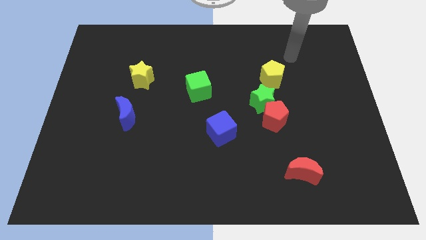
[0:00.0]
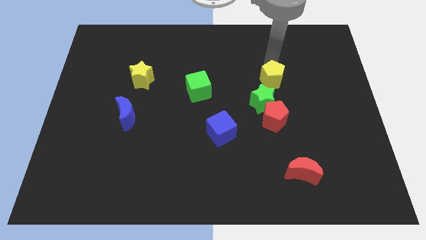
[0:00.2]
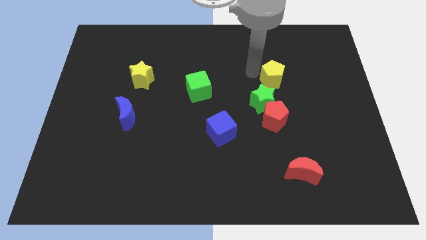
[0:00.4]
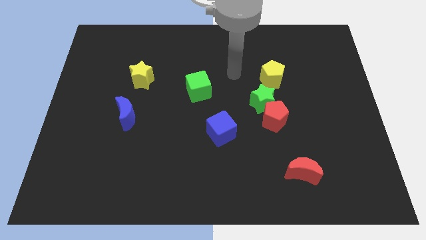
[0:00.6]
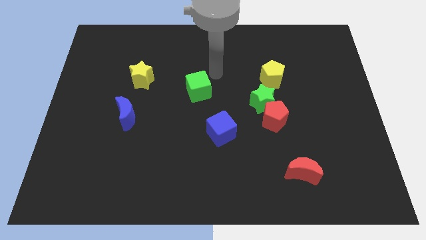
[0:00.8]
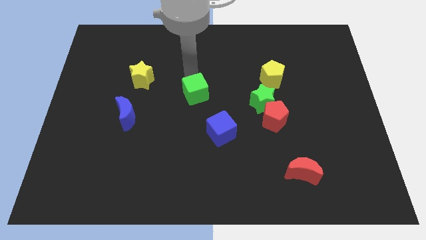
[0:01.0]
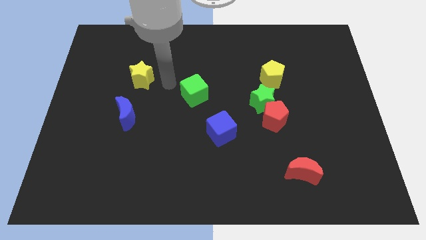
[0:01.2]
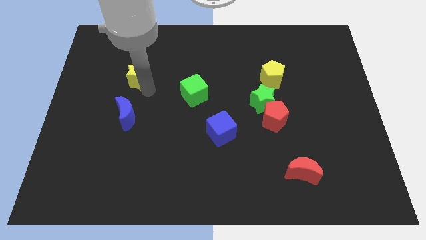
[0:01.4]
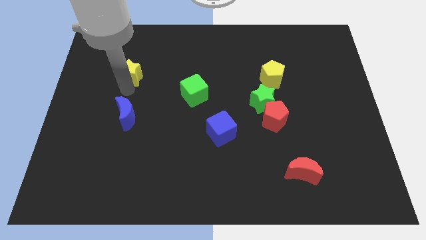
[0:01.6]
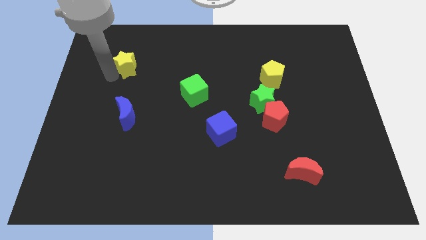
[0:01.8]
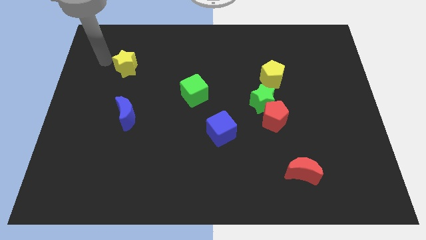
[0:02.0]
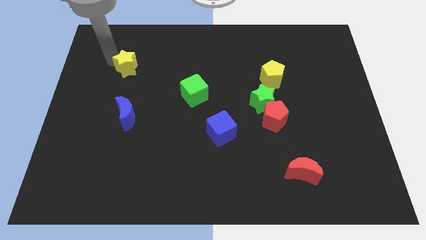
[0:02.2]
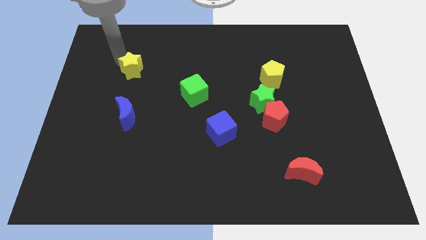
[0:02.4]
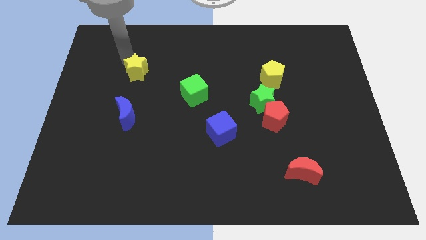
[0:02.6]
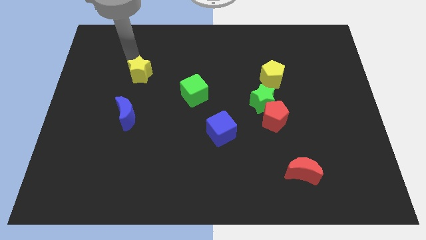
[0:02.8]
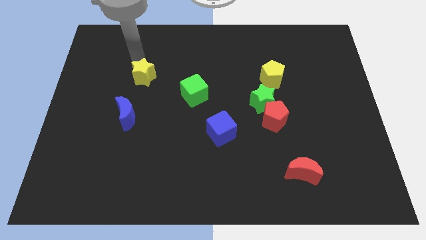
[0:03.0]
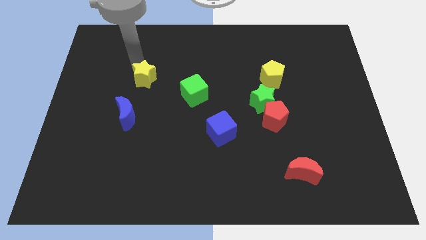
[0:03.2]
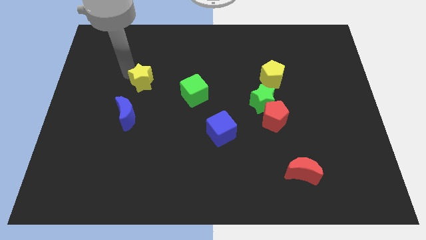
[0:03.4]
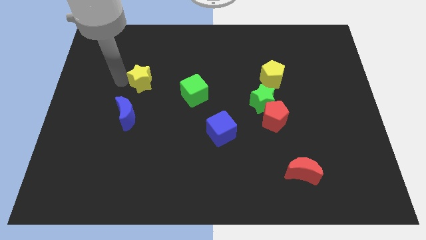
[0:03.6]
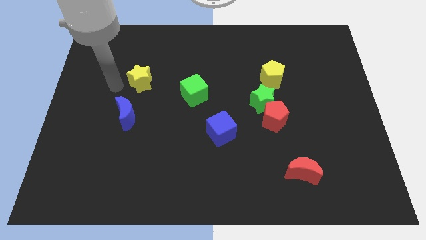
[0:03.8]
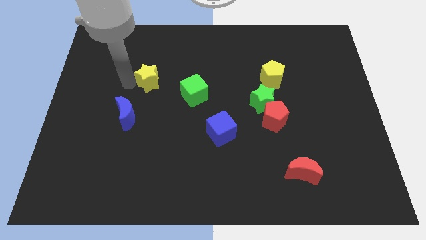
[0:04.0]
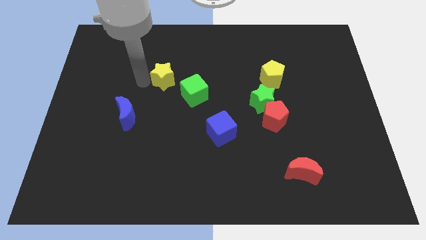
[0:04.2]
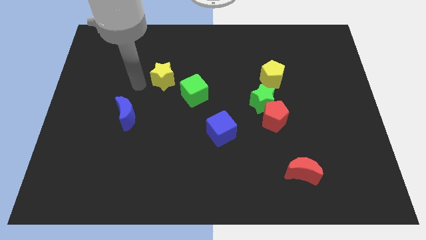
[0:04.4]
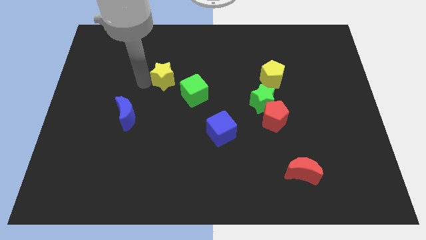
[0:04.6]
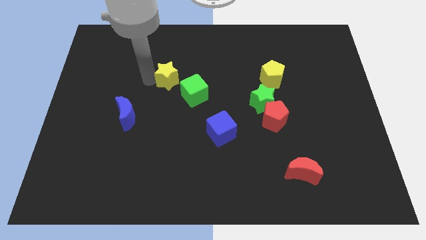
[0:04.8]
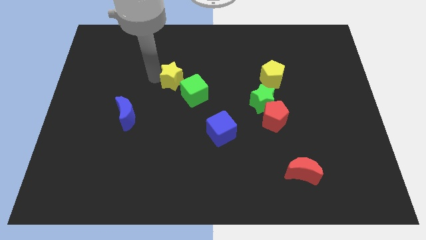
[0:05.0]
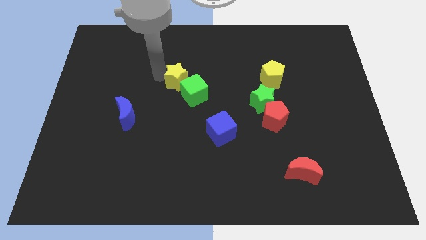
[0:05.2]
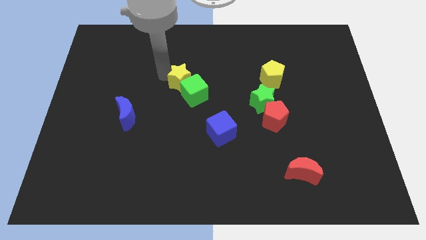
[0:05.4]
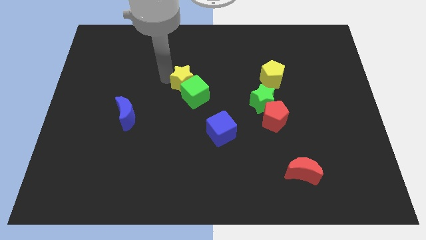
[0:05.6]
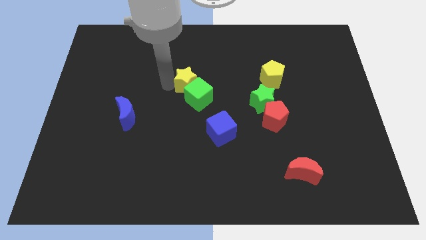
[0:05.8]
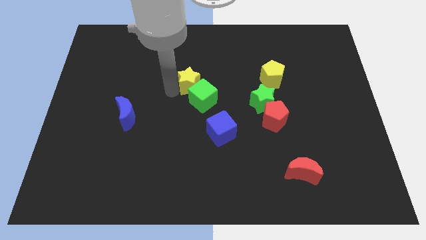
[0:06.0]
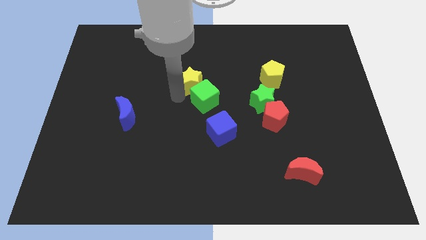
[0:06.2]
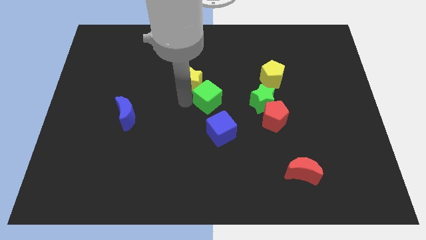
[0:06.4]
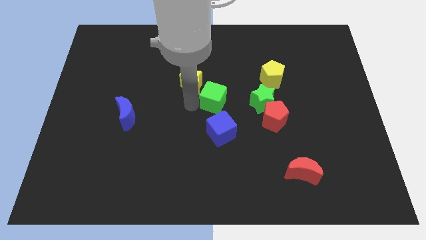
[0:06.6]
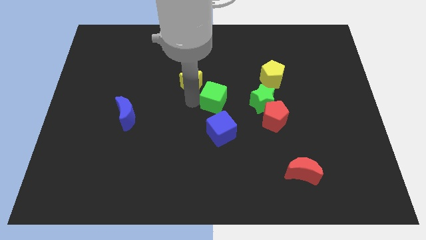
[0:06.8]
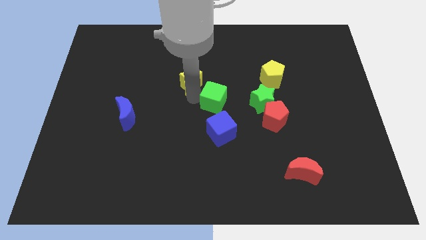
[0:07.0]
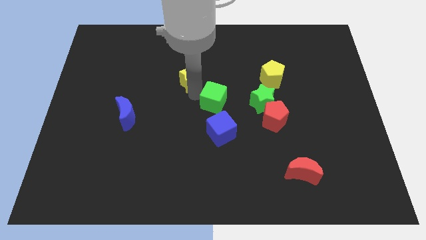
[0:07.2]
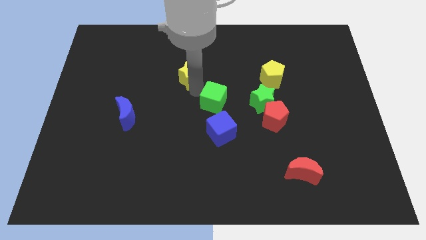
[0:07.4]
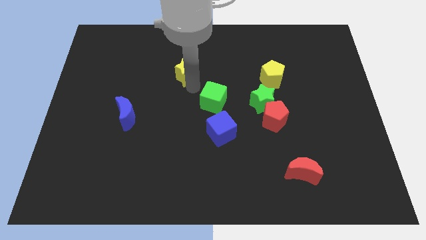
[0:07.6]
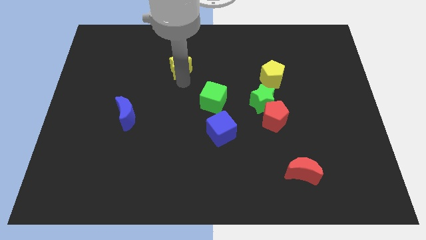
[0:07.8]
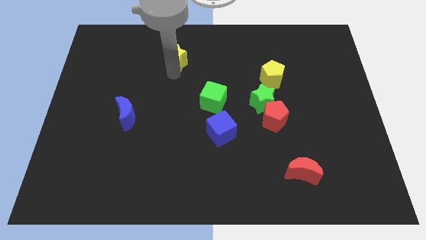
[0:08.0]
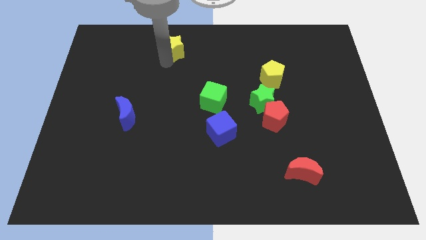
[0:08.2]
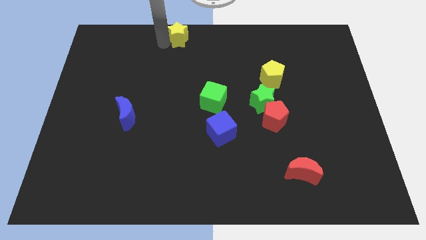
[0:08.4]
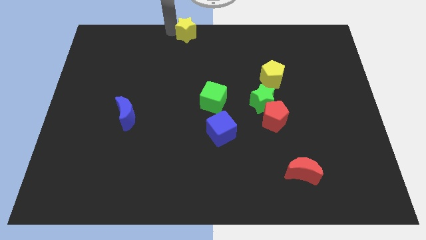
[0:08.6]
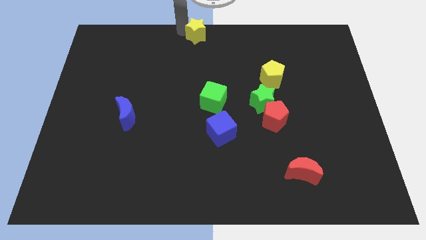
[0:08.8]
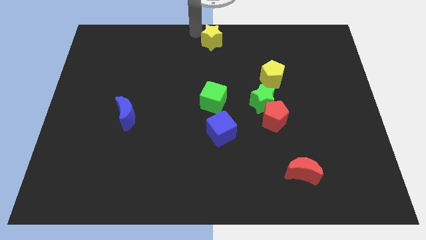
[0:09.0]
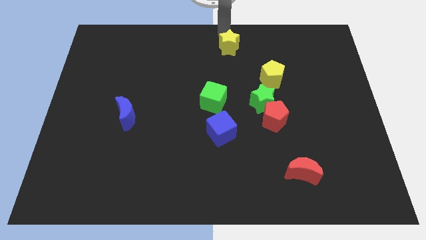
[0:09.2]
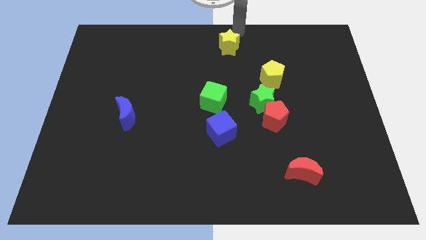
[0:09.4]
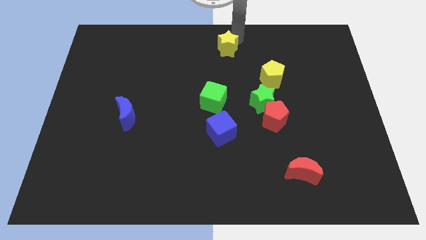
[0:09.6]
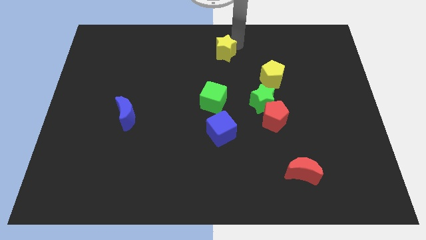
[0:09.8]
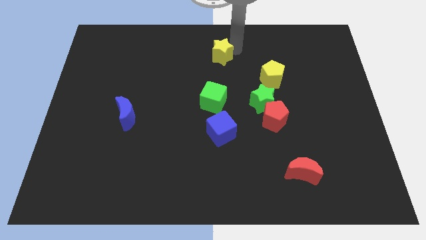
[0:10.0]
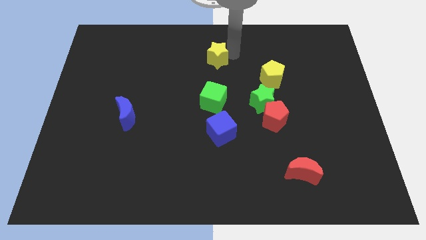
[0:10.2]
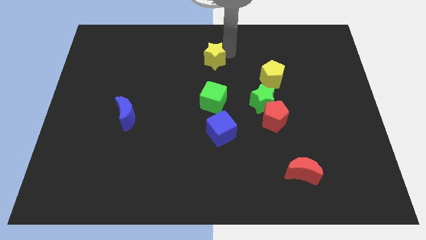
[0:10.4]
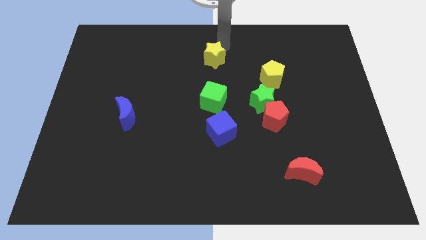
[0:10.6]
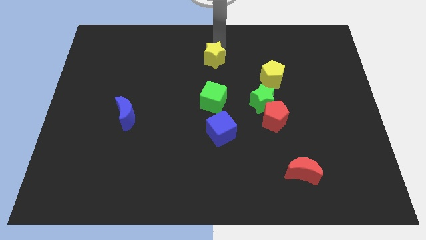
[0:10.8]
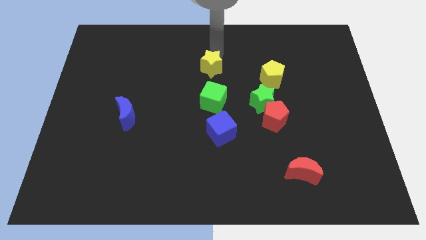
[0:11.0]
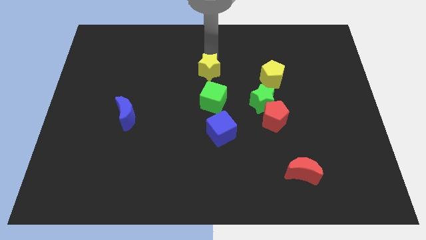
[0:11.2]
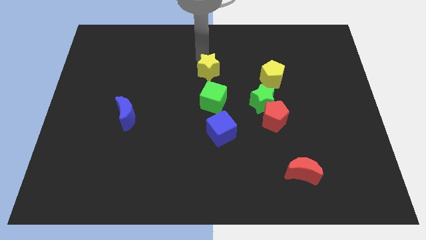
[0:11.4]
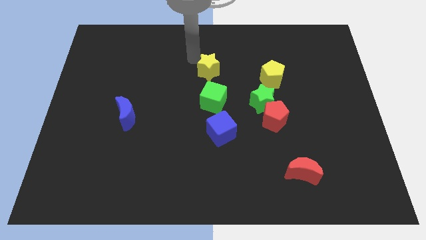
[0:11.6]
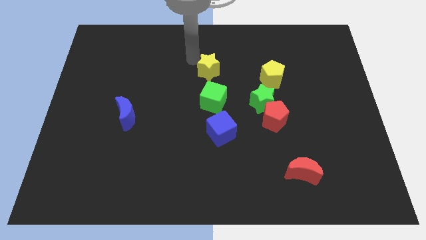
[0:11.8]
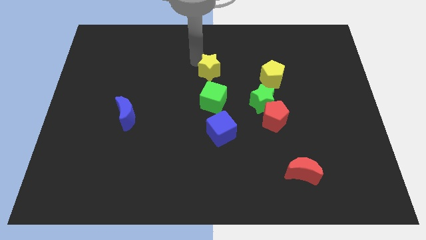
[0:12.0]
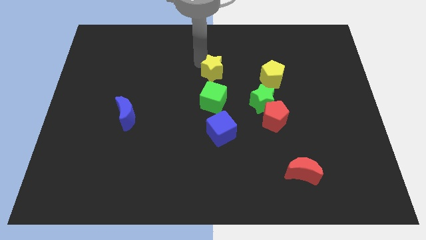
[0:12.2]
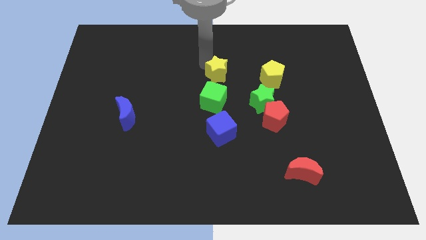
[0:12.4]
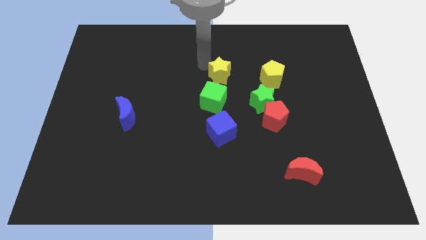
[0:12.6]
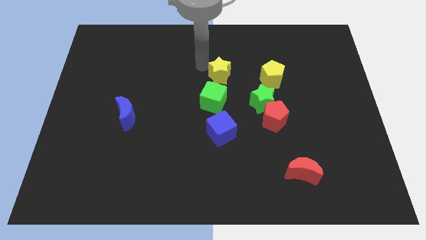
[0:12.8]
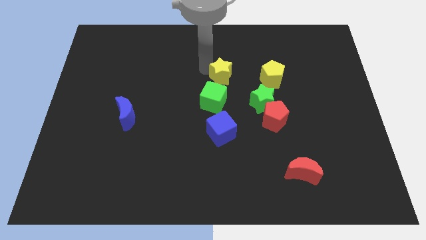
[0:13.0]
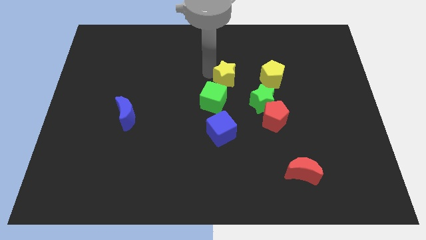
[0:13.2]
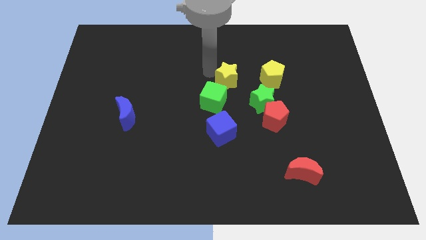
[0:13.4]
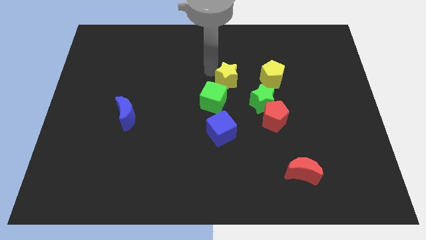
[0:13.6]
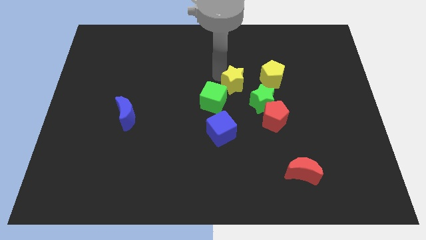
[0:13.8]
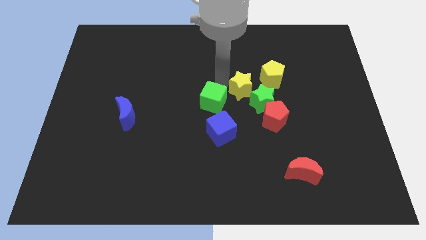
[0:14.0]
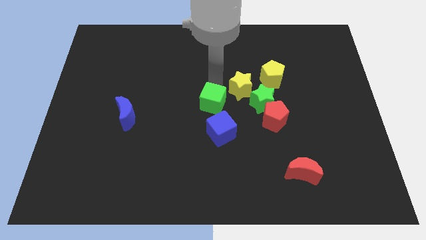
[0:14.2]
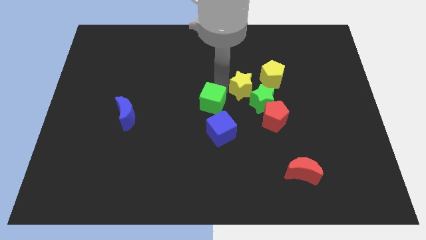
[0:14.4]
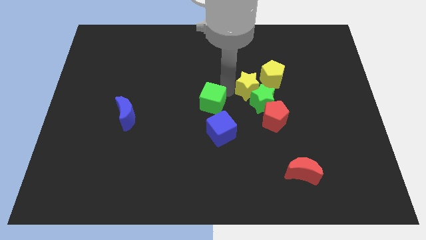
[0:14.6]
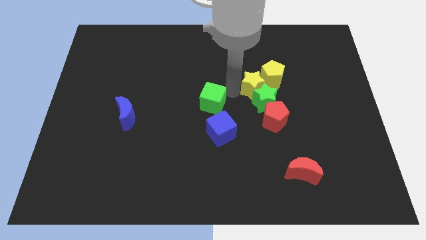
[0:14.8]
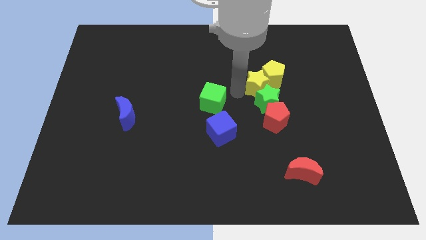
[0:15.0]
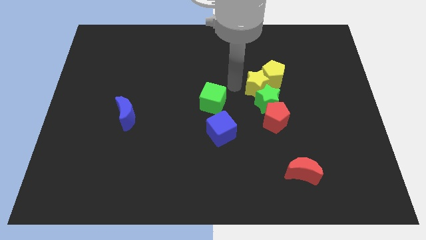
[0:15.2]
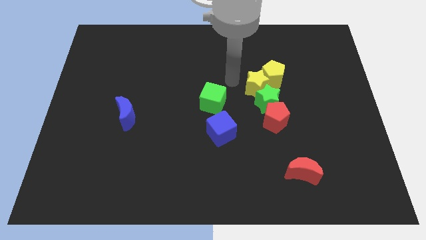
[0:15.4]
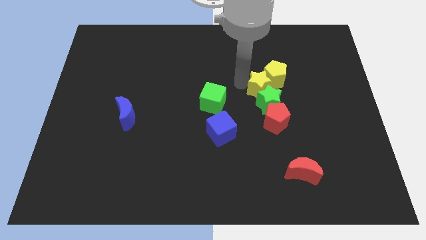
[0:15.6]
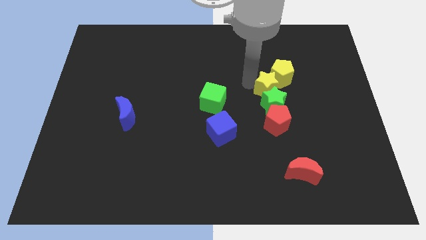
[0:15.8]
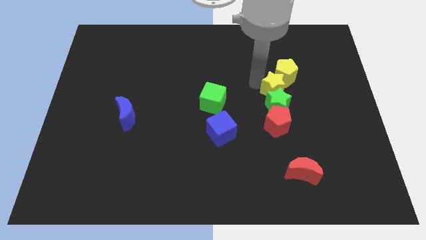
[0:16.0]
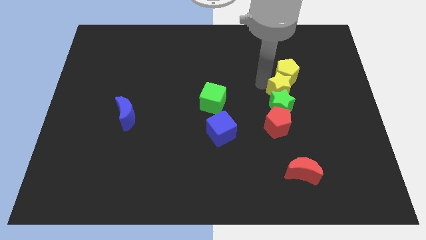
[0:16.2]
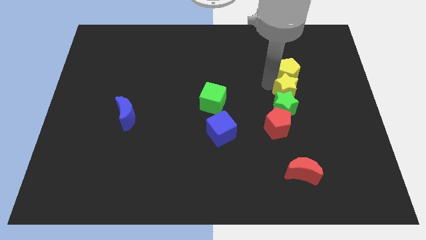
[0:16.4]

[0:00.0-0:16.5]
move the yellow star to the top right of the red pentagon
